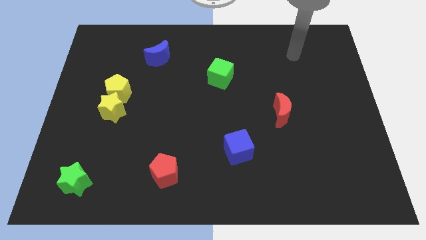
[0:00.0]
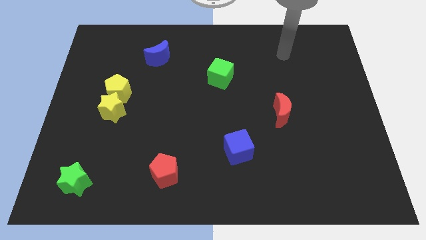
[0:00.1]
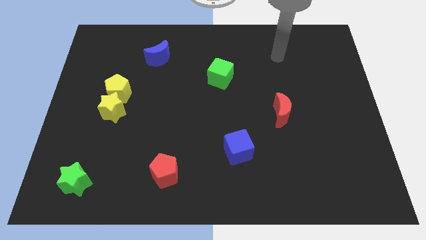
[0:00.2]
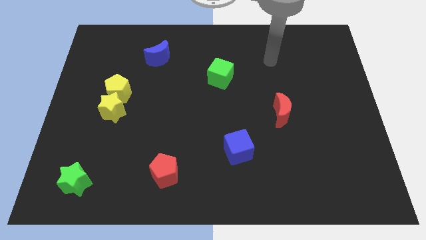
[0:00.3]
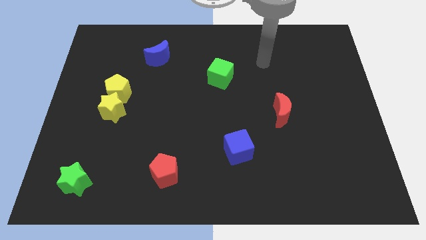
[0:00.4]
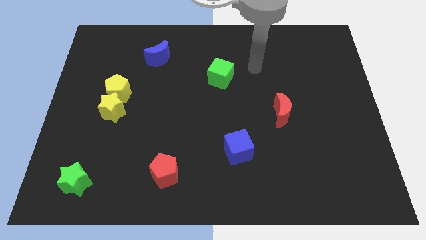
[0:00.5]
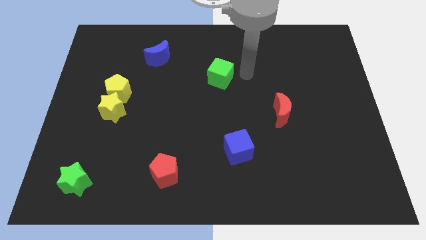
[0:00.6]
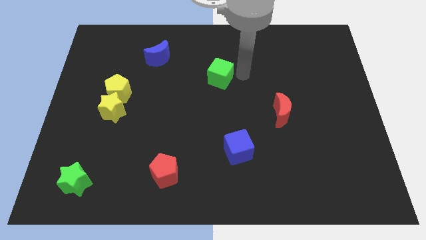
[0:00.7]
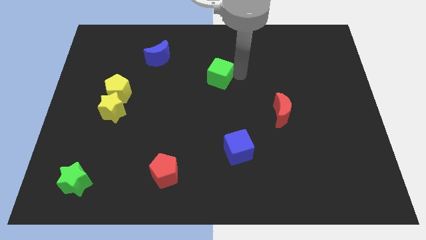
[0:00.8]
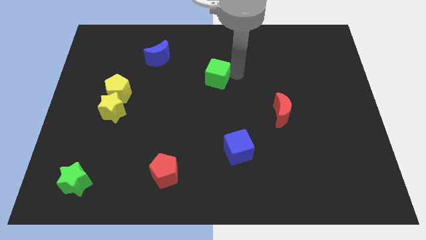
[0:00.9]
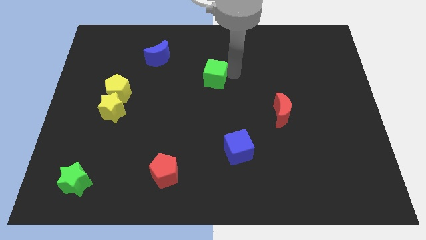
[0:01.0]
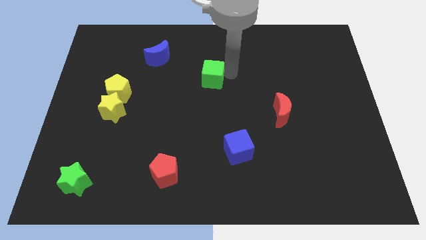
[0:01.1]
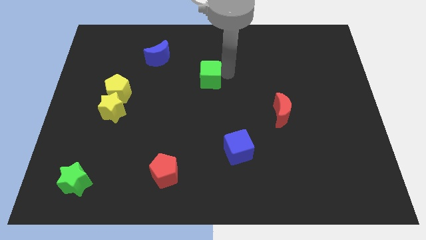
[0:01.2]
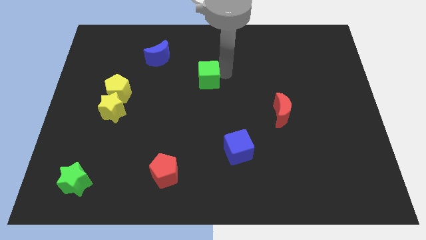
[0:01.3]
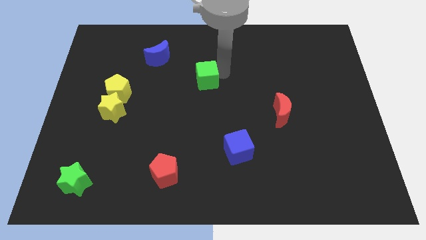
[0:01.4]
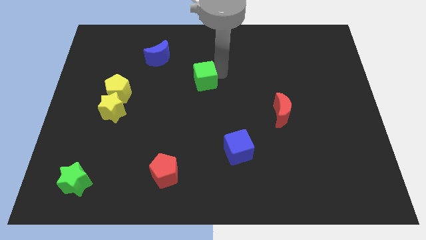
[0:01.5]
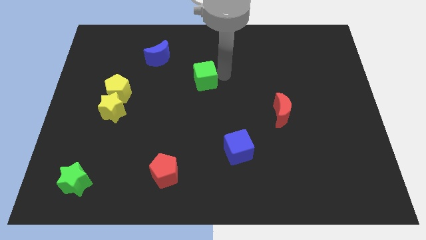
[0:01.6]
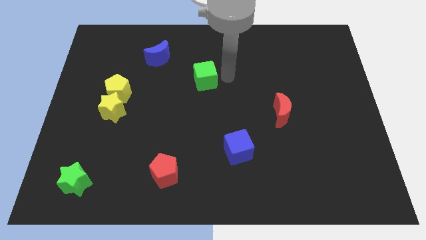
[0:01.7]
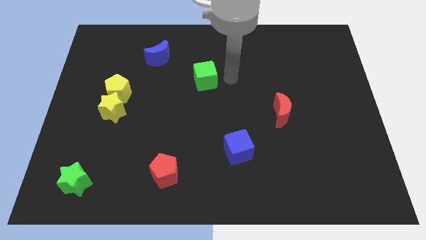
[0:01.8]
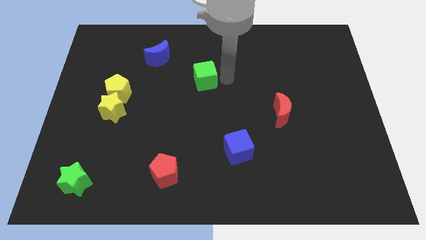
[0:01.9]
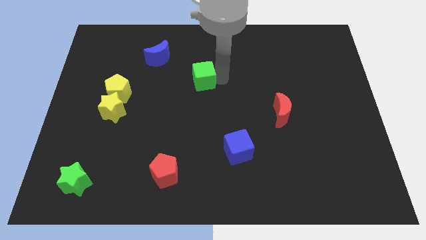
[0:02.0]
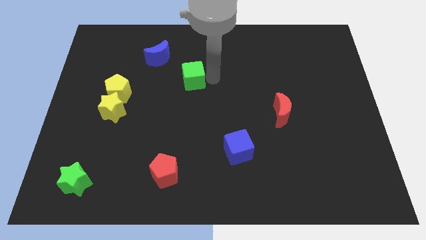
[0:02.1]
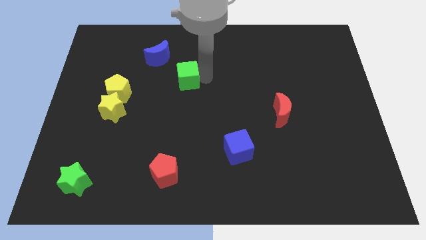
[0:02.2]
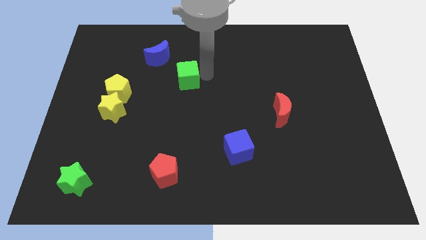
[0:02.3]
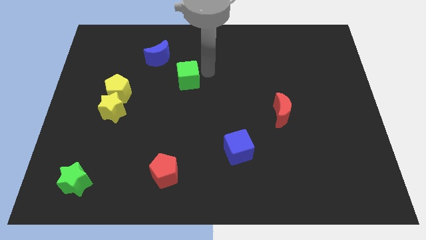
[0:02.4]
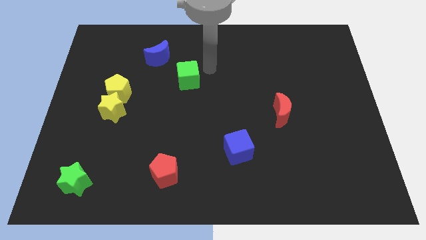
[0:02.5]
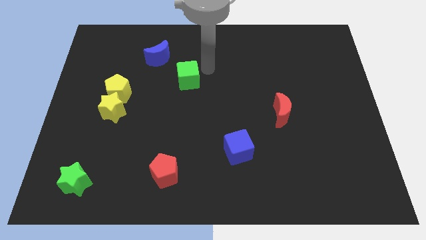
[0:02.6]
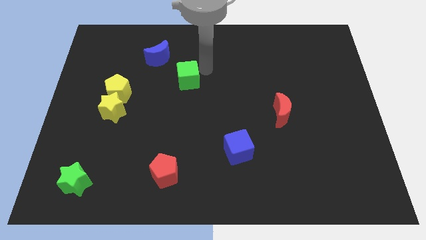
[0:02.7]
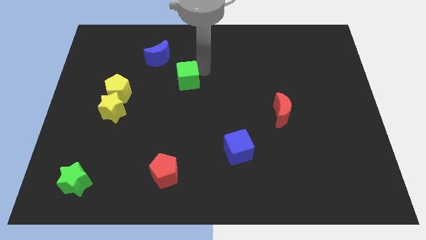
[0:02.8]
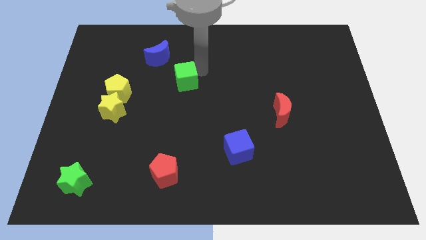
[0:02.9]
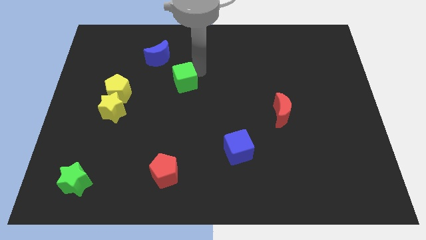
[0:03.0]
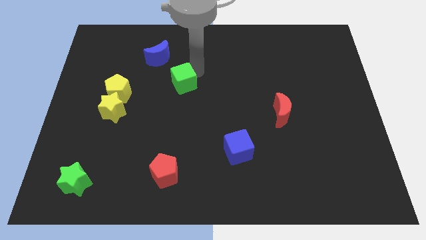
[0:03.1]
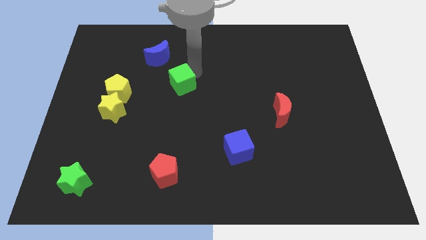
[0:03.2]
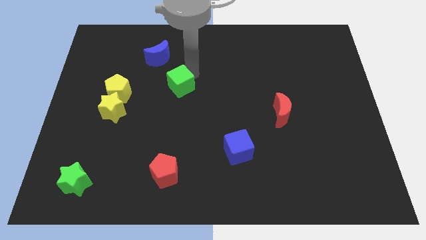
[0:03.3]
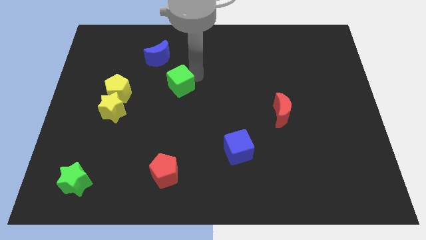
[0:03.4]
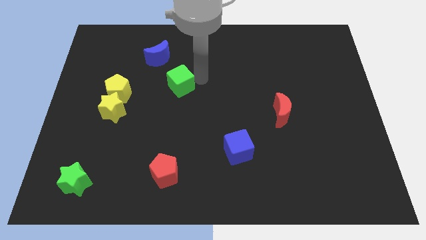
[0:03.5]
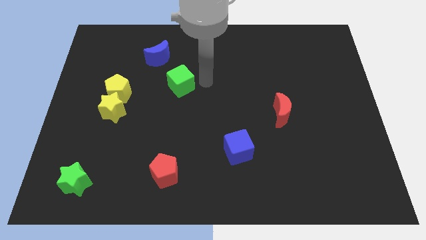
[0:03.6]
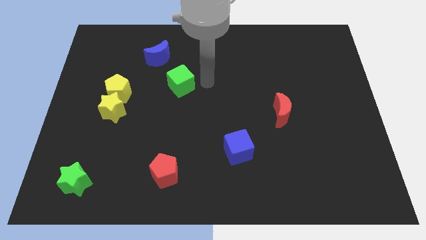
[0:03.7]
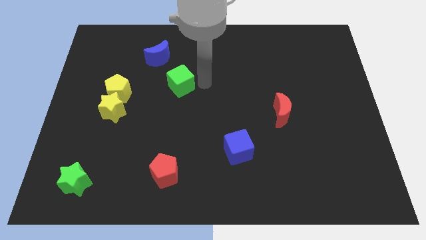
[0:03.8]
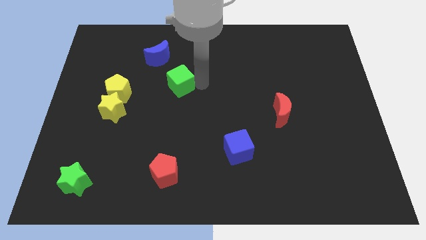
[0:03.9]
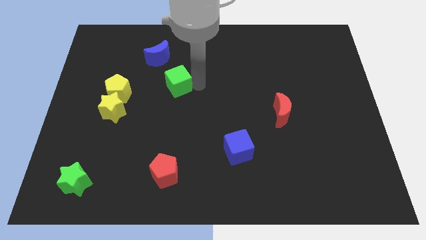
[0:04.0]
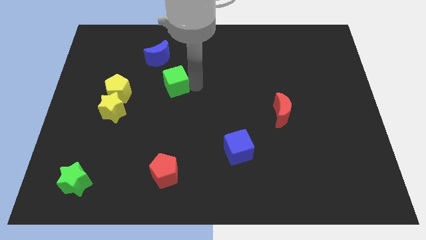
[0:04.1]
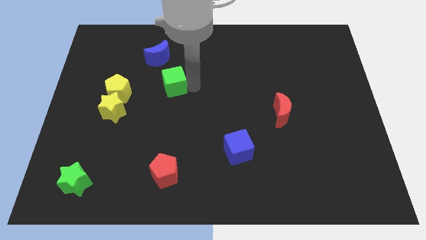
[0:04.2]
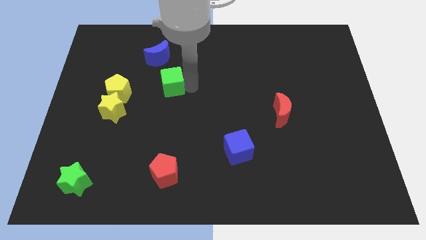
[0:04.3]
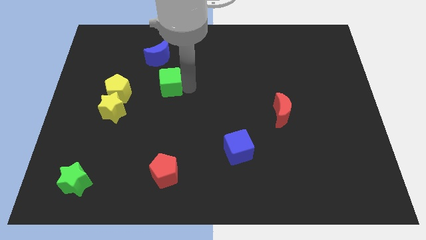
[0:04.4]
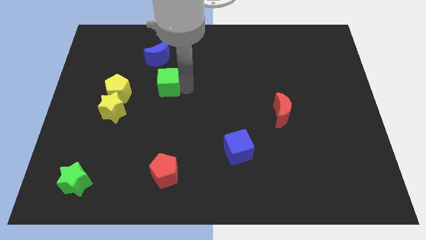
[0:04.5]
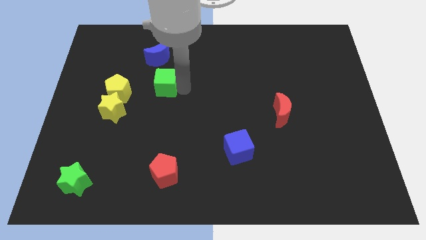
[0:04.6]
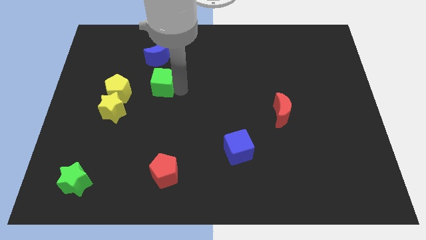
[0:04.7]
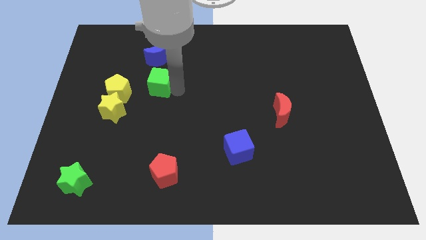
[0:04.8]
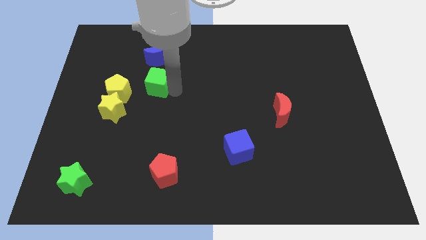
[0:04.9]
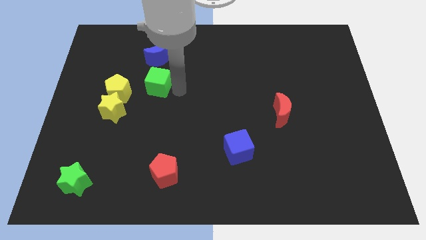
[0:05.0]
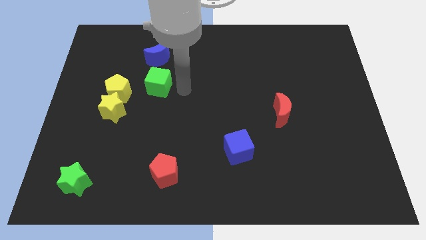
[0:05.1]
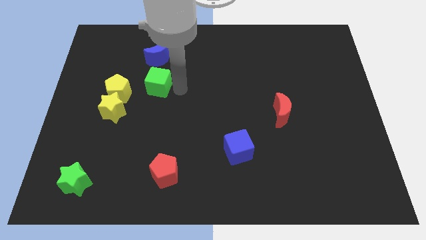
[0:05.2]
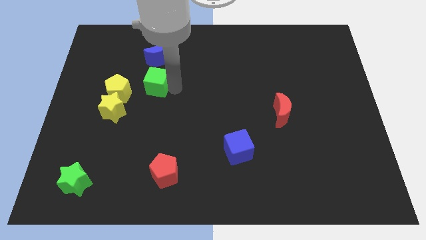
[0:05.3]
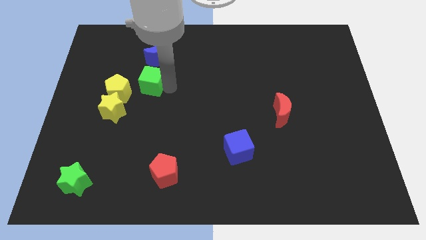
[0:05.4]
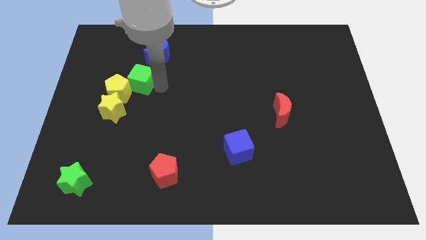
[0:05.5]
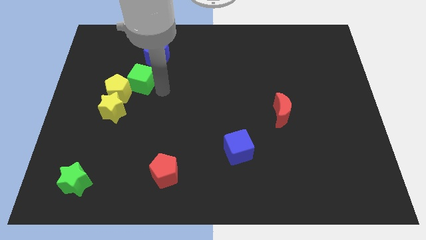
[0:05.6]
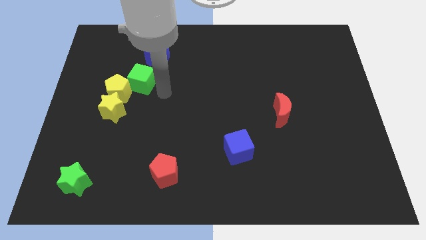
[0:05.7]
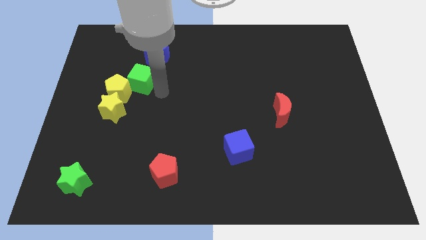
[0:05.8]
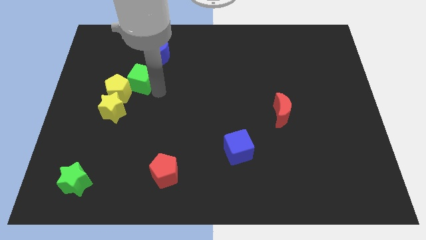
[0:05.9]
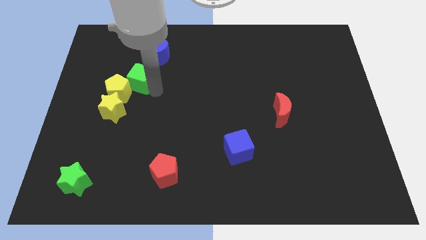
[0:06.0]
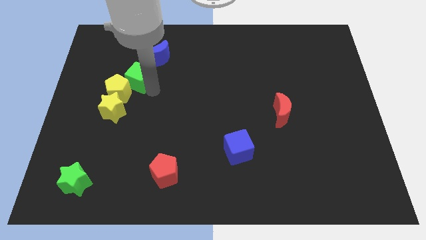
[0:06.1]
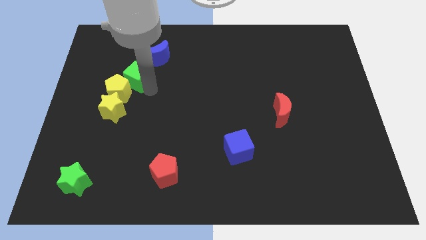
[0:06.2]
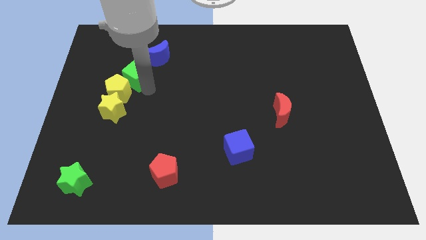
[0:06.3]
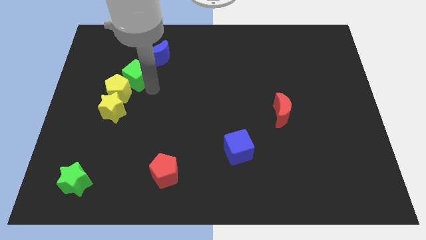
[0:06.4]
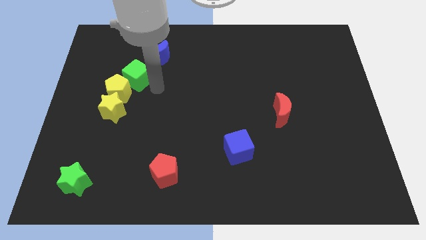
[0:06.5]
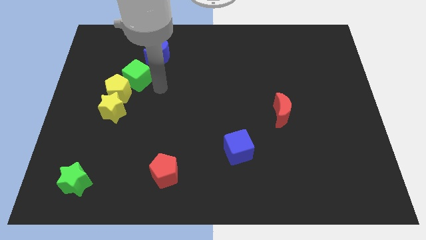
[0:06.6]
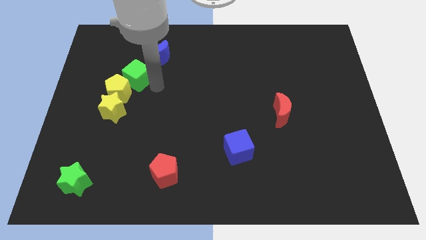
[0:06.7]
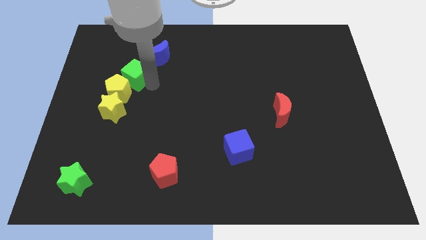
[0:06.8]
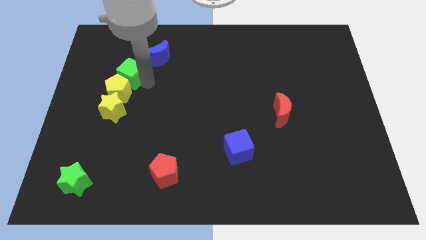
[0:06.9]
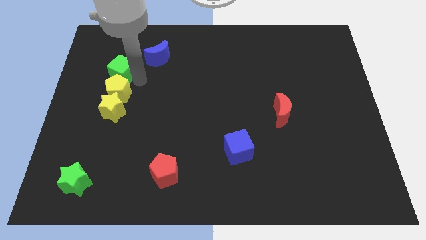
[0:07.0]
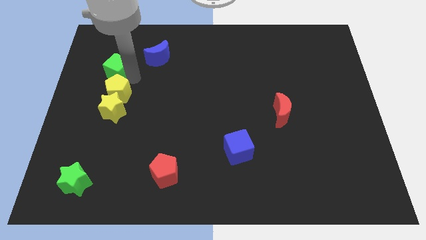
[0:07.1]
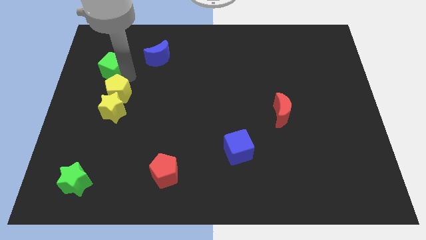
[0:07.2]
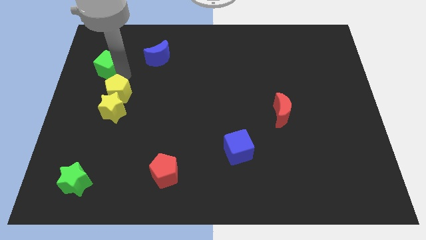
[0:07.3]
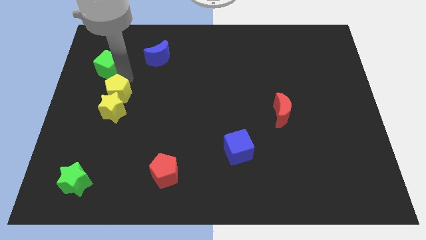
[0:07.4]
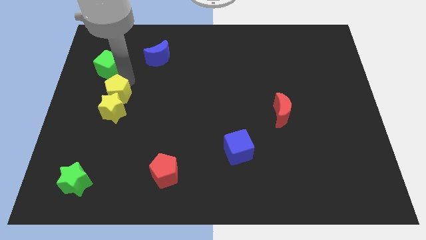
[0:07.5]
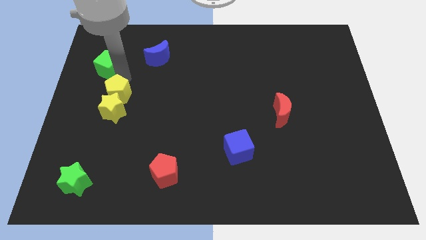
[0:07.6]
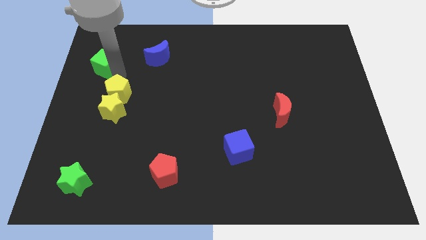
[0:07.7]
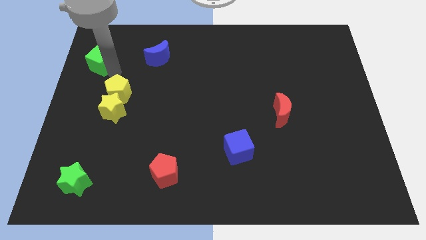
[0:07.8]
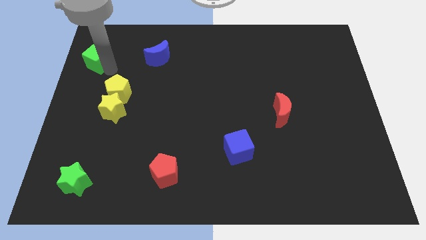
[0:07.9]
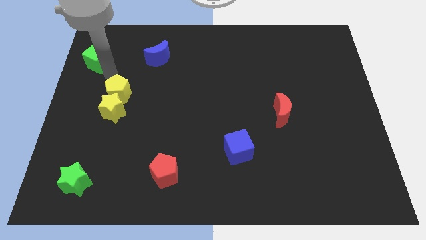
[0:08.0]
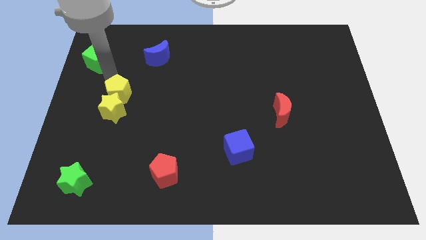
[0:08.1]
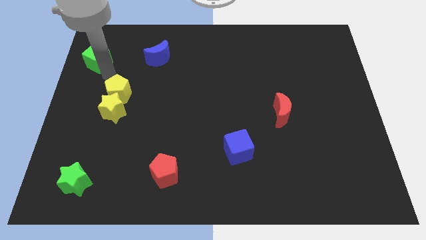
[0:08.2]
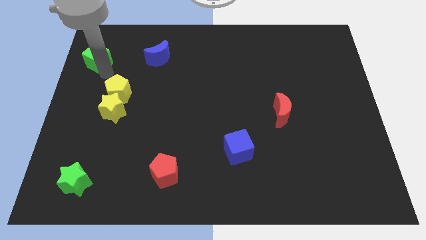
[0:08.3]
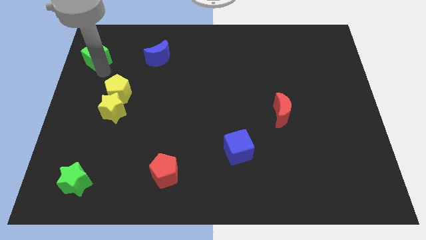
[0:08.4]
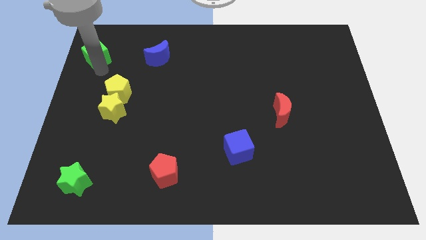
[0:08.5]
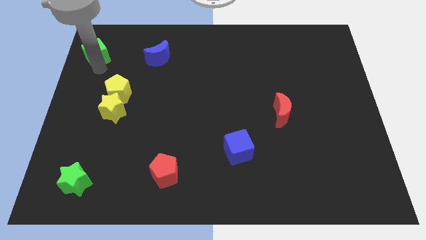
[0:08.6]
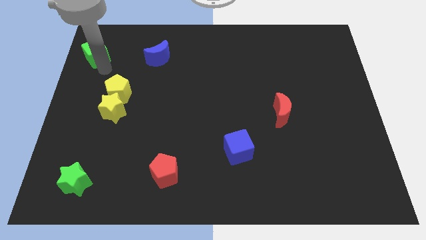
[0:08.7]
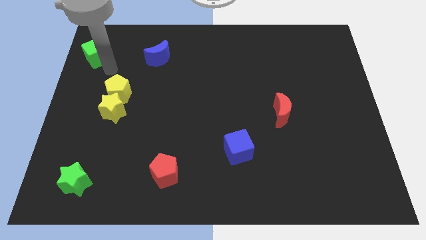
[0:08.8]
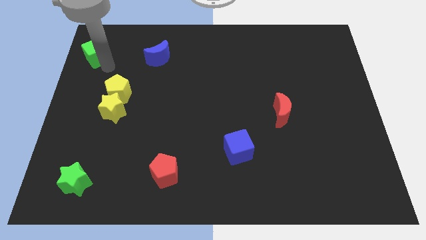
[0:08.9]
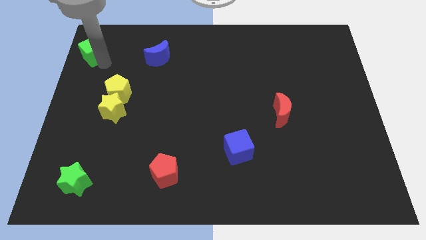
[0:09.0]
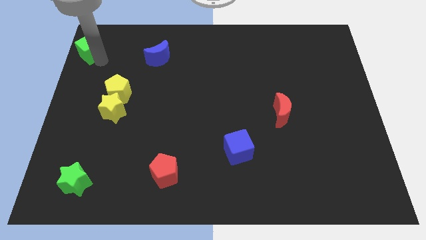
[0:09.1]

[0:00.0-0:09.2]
move the green cube to the top left of the board
